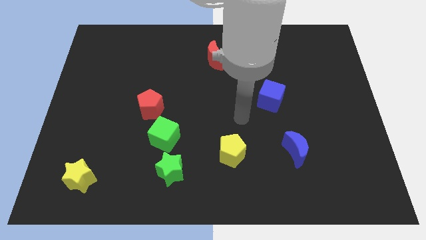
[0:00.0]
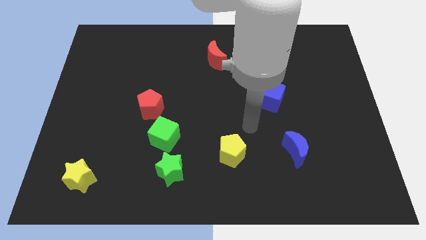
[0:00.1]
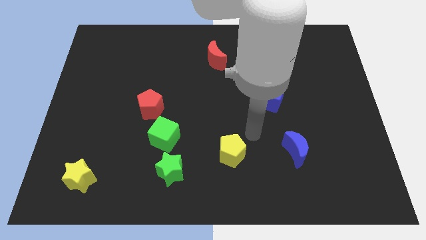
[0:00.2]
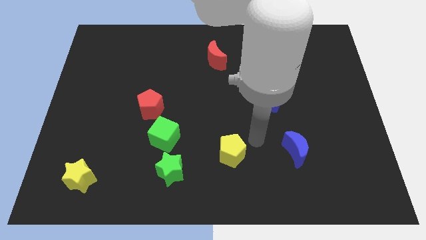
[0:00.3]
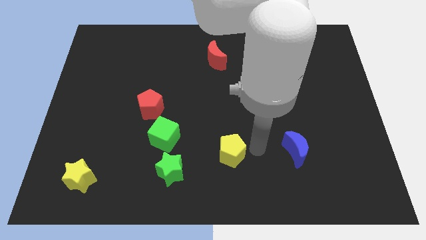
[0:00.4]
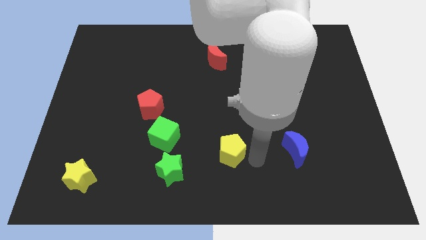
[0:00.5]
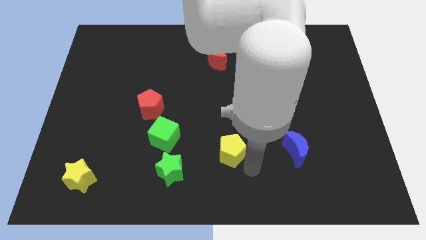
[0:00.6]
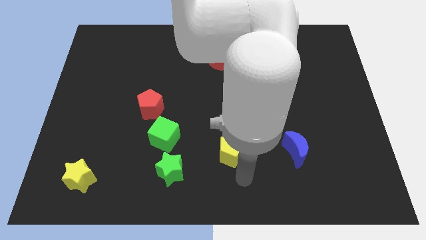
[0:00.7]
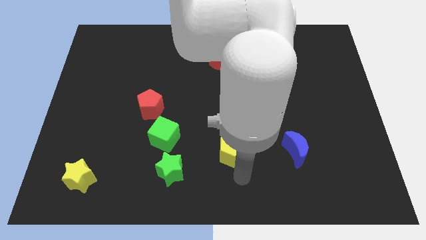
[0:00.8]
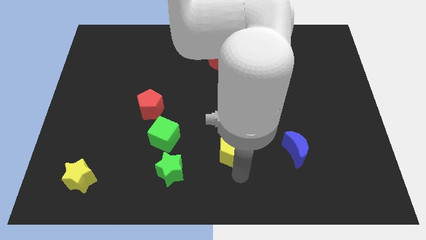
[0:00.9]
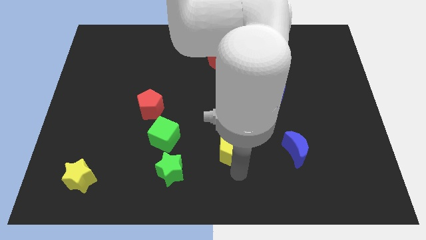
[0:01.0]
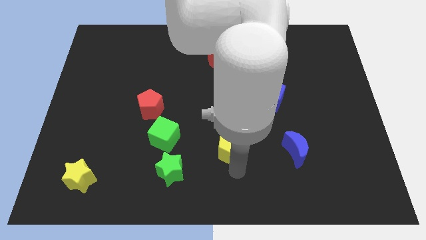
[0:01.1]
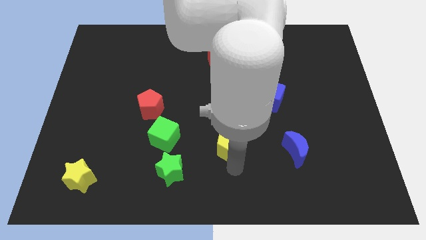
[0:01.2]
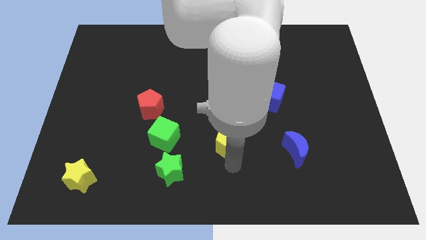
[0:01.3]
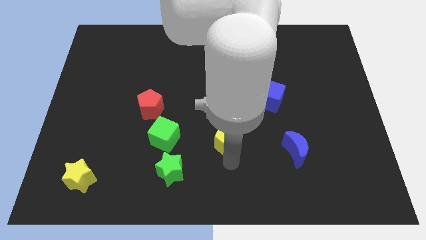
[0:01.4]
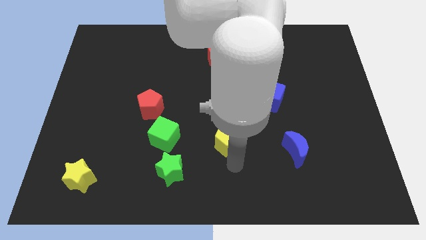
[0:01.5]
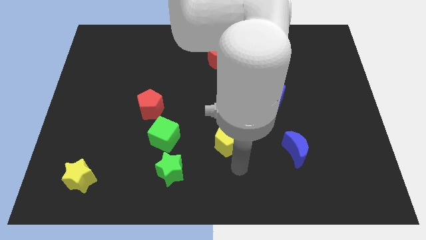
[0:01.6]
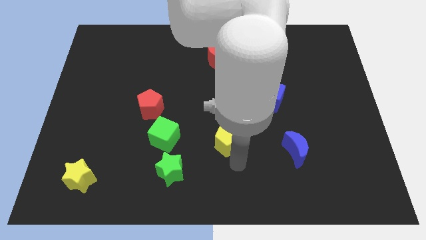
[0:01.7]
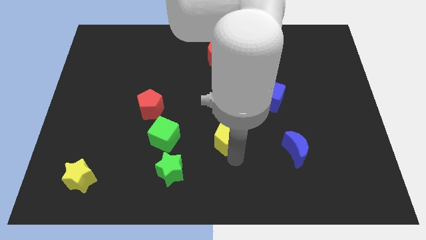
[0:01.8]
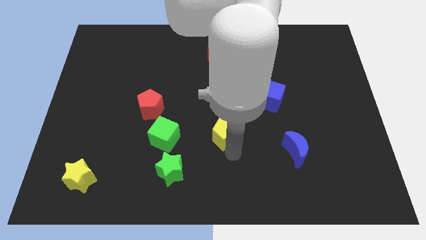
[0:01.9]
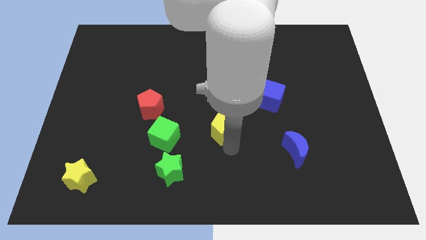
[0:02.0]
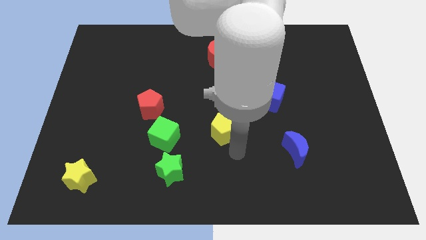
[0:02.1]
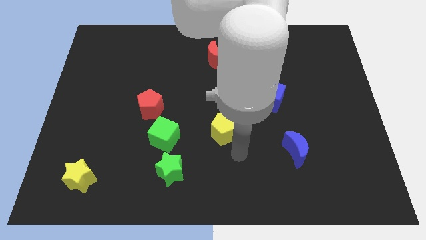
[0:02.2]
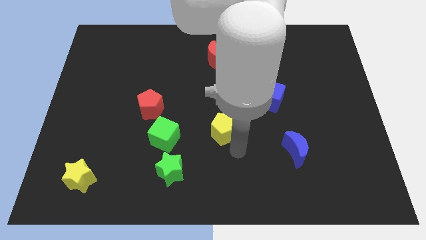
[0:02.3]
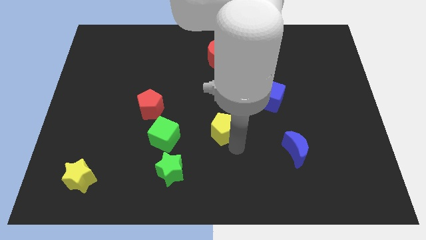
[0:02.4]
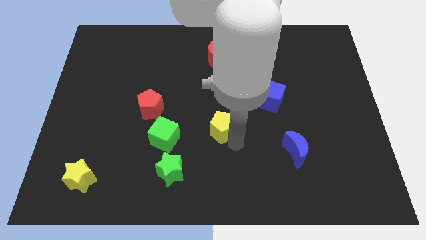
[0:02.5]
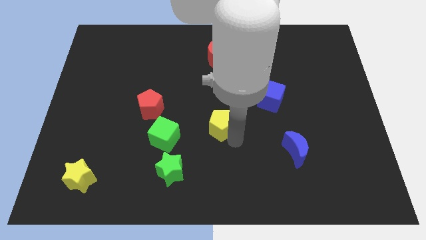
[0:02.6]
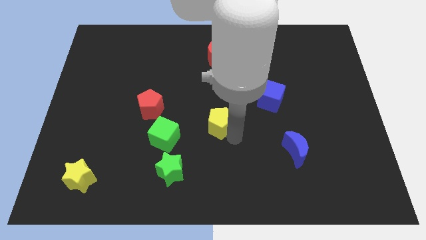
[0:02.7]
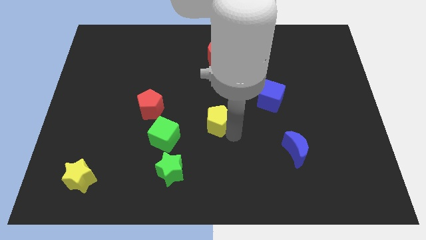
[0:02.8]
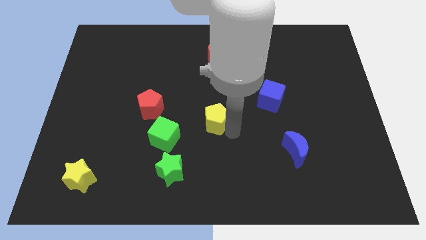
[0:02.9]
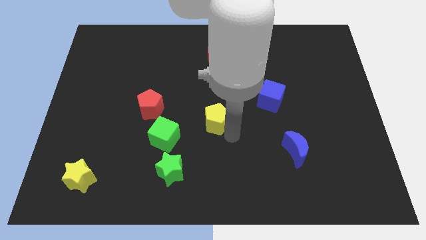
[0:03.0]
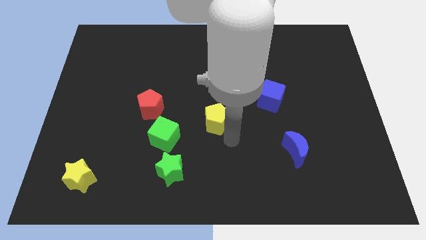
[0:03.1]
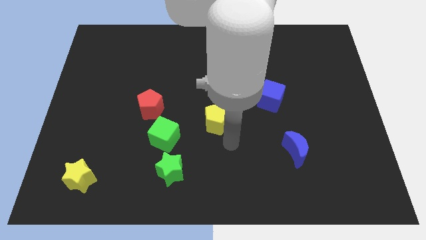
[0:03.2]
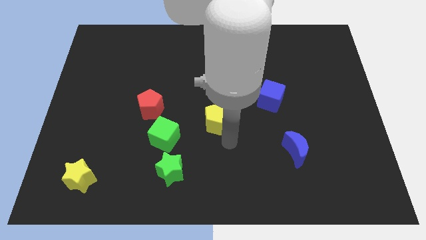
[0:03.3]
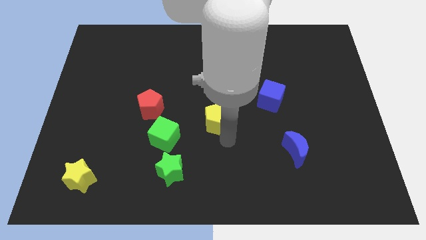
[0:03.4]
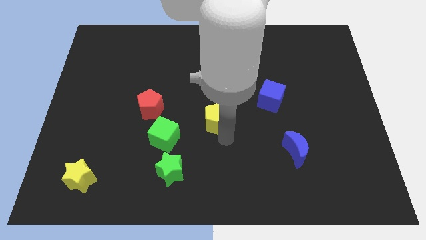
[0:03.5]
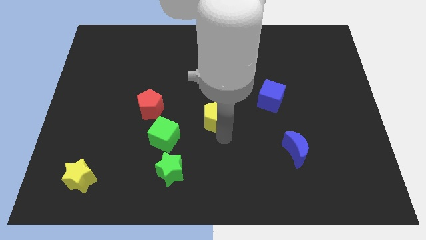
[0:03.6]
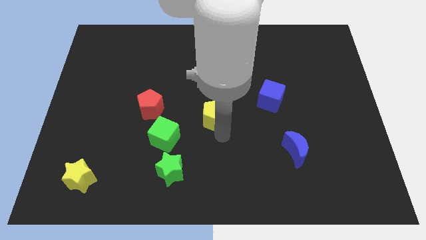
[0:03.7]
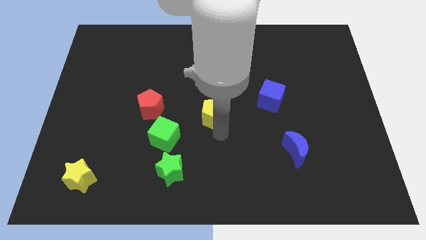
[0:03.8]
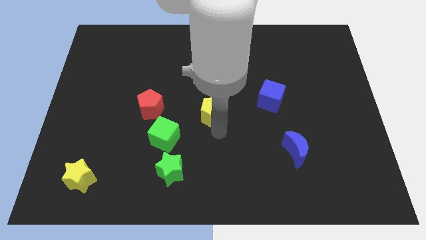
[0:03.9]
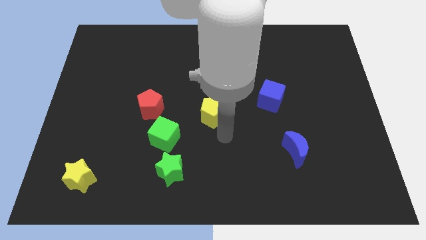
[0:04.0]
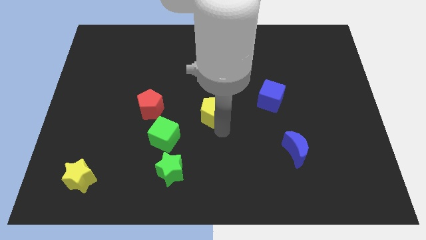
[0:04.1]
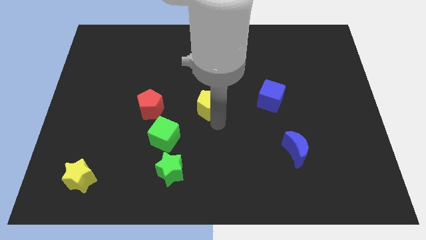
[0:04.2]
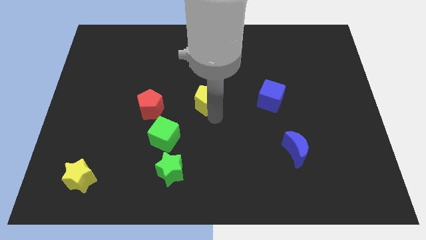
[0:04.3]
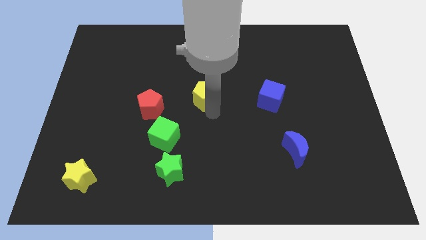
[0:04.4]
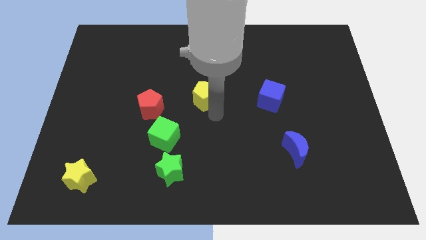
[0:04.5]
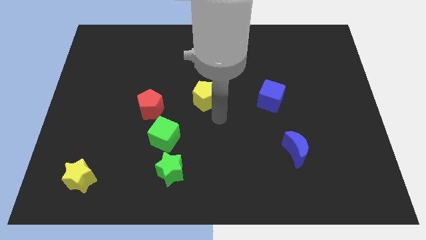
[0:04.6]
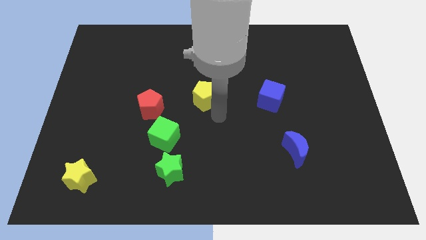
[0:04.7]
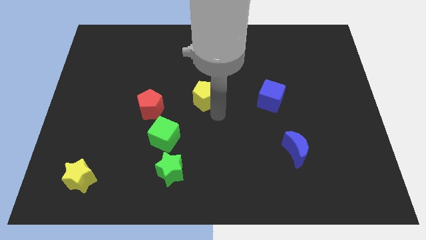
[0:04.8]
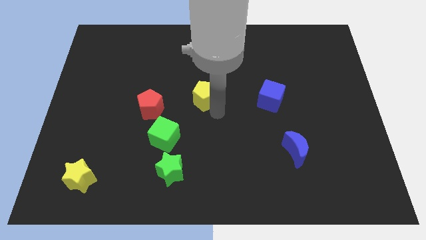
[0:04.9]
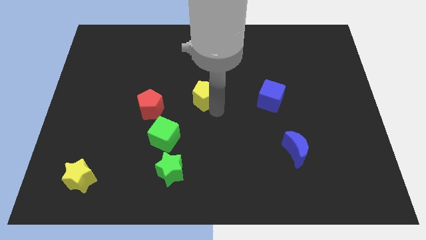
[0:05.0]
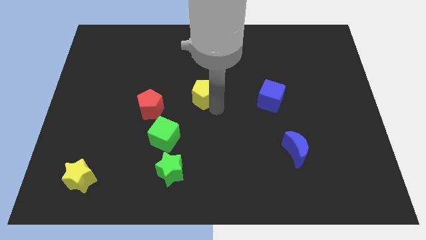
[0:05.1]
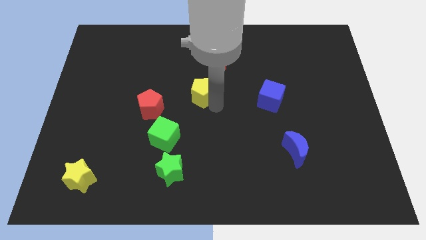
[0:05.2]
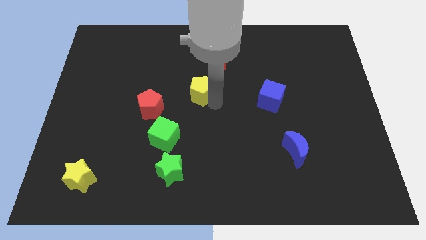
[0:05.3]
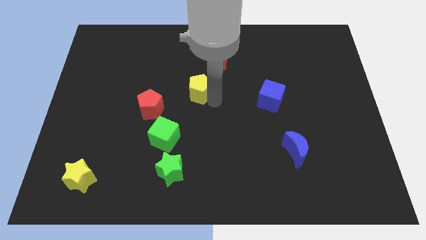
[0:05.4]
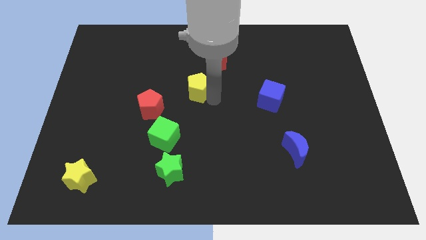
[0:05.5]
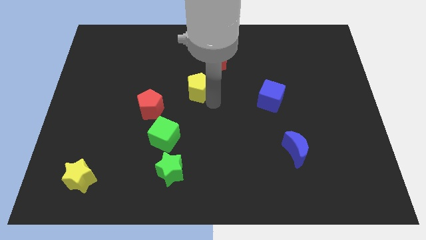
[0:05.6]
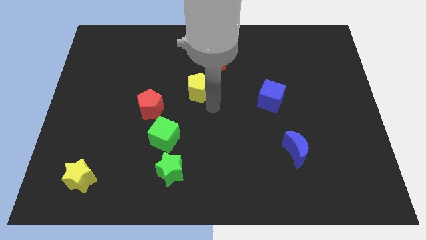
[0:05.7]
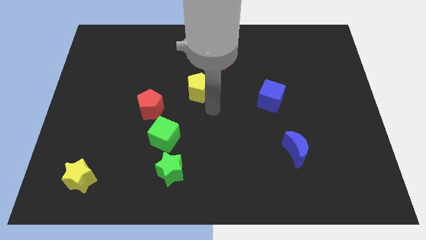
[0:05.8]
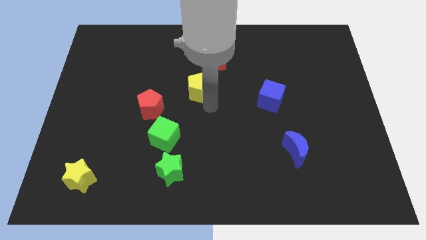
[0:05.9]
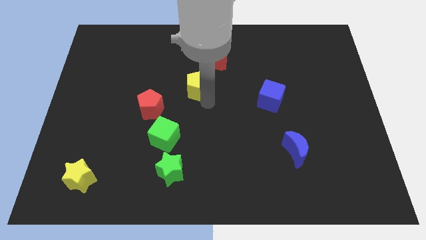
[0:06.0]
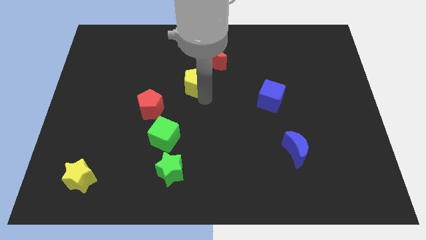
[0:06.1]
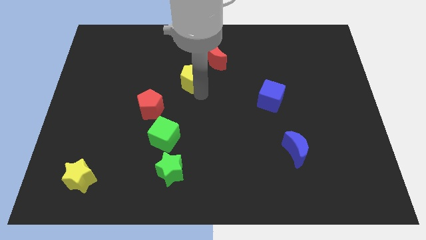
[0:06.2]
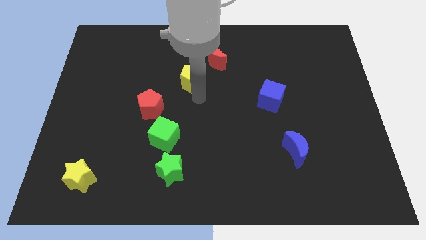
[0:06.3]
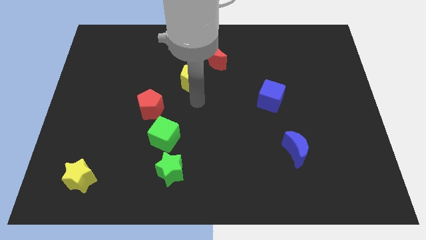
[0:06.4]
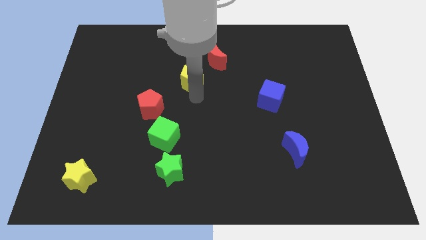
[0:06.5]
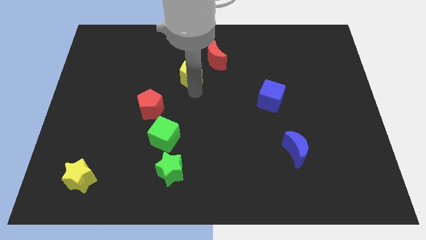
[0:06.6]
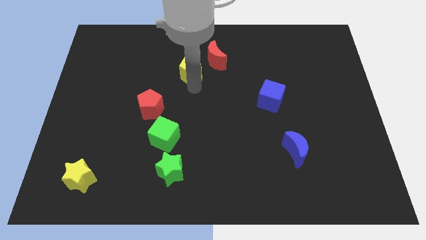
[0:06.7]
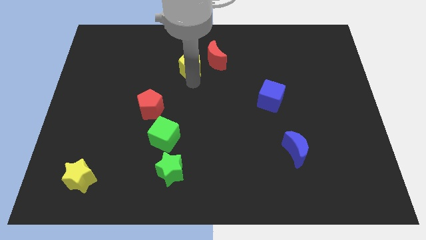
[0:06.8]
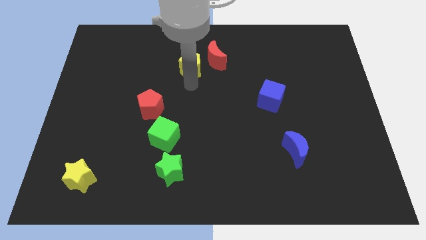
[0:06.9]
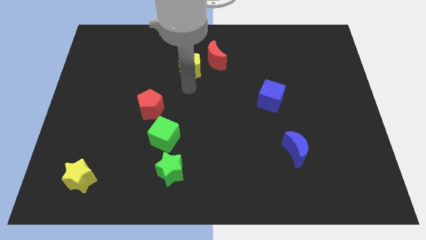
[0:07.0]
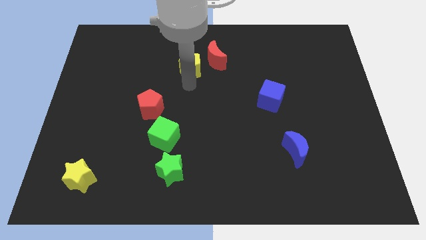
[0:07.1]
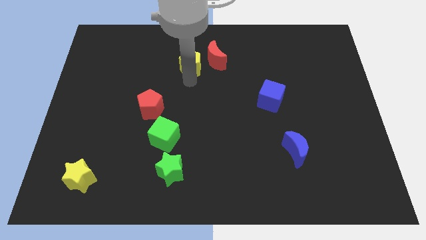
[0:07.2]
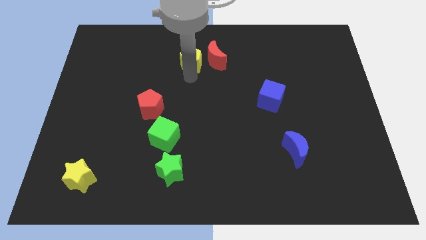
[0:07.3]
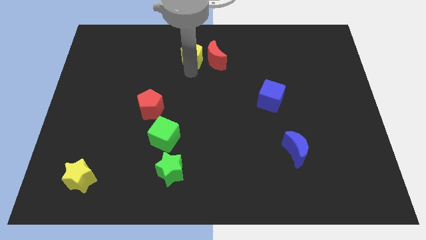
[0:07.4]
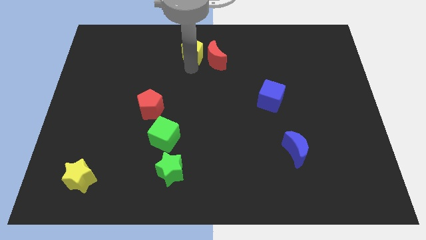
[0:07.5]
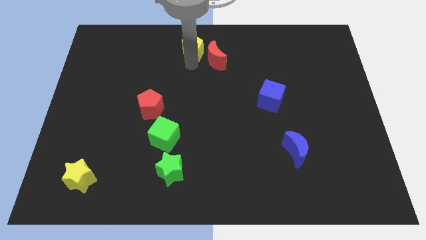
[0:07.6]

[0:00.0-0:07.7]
slide the yellow pentagon to the top side
